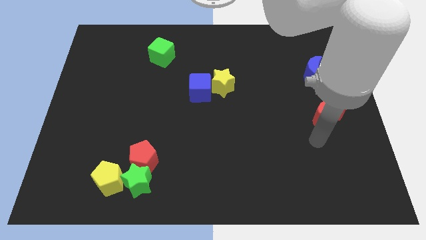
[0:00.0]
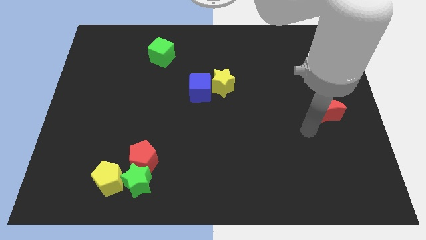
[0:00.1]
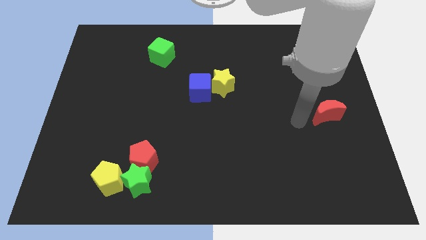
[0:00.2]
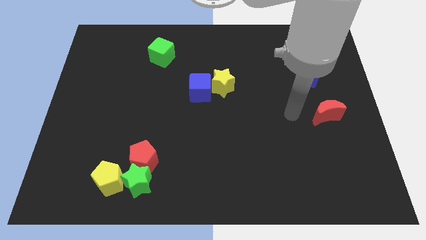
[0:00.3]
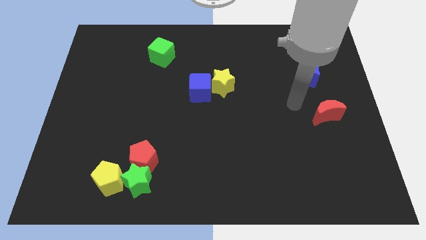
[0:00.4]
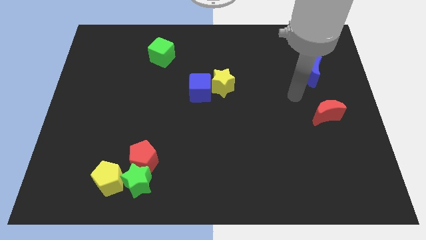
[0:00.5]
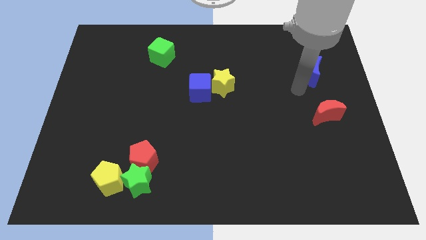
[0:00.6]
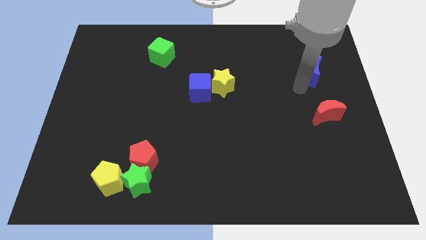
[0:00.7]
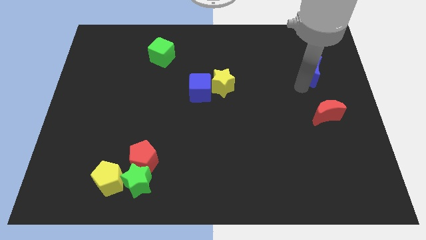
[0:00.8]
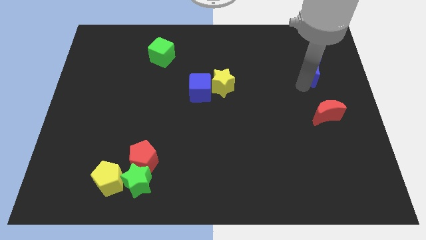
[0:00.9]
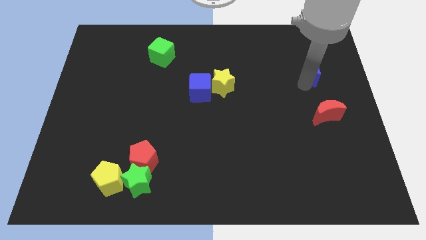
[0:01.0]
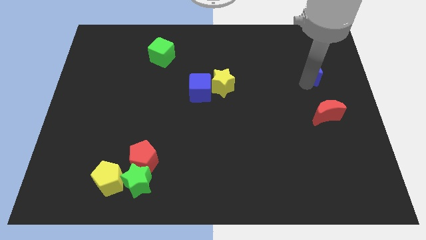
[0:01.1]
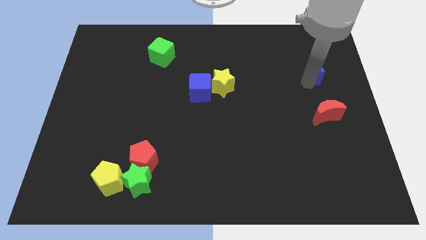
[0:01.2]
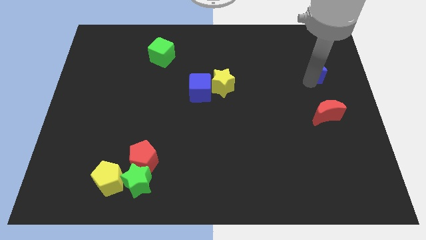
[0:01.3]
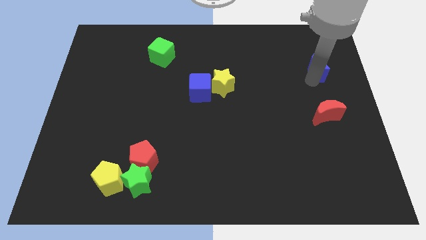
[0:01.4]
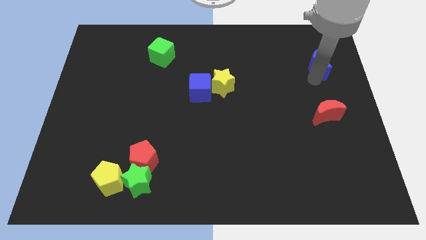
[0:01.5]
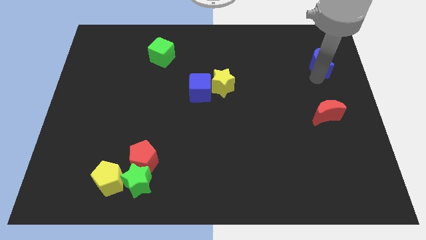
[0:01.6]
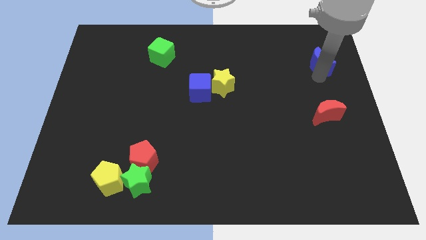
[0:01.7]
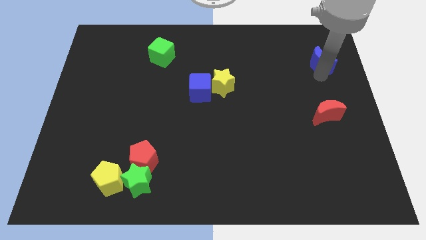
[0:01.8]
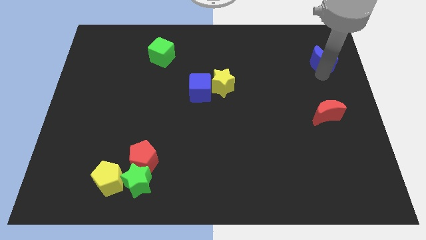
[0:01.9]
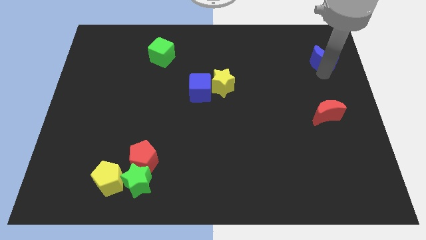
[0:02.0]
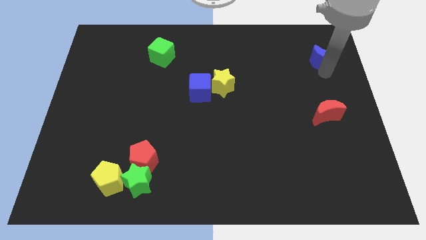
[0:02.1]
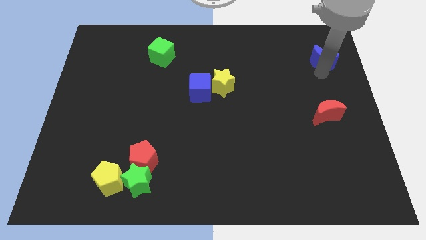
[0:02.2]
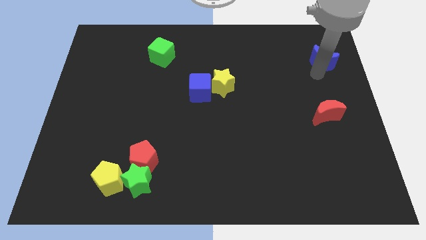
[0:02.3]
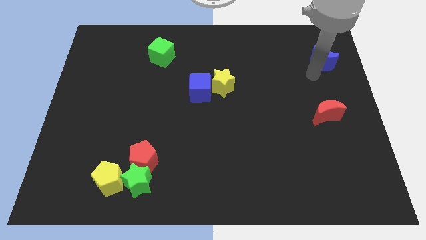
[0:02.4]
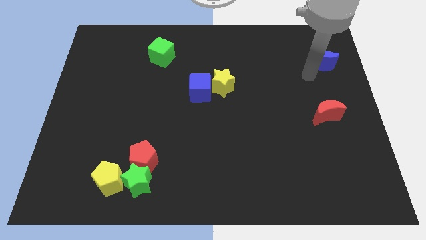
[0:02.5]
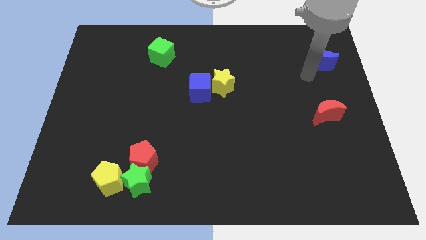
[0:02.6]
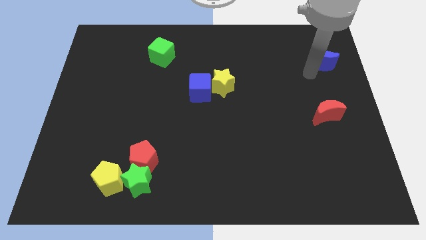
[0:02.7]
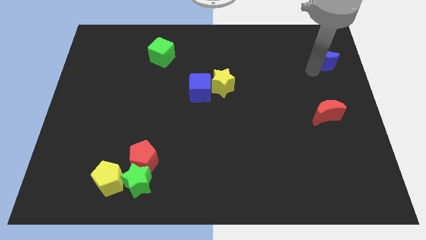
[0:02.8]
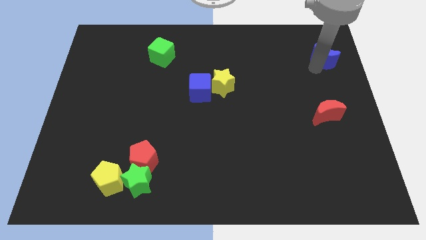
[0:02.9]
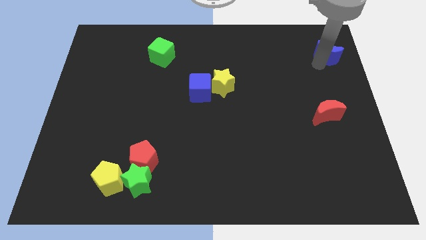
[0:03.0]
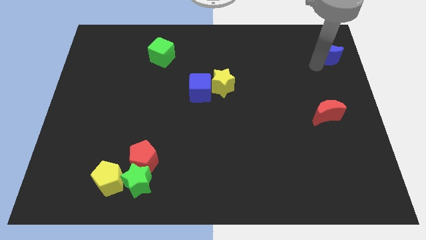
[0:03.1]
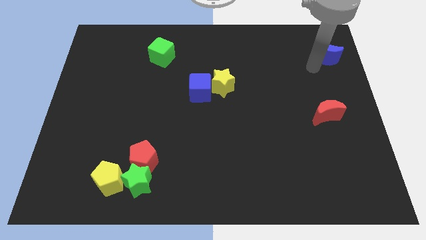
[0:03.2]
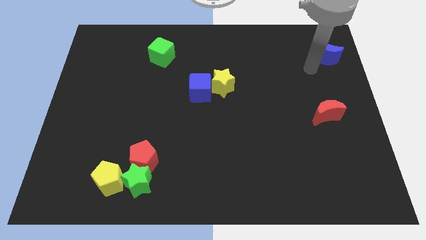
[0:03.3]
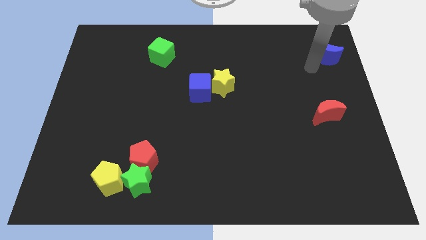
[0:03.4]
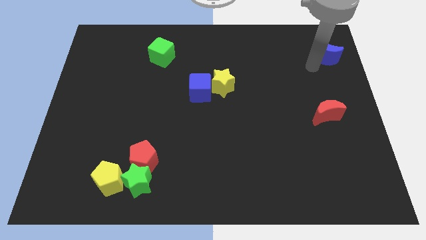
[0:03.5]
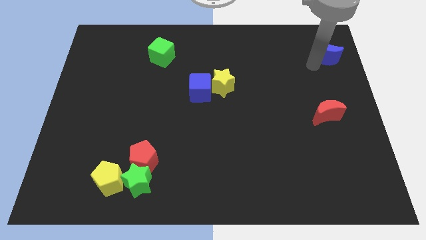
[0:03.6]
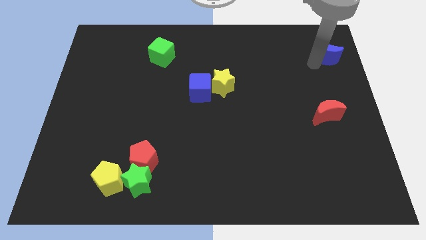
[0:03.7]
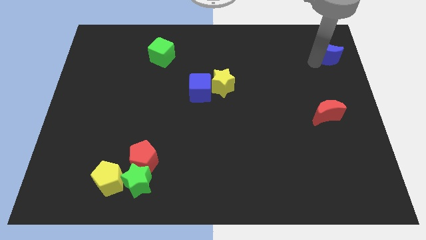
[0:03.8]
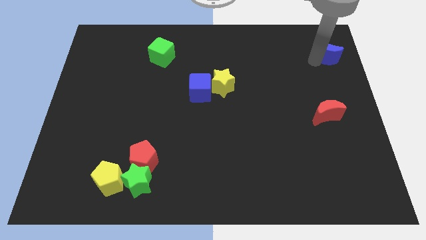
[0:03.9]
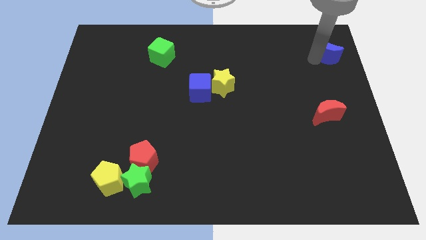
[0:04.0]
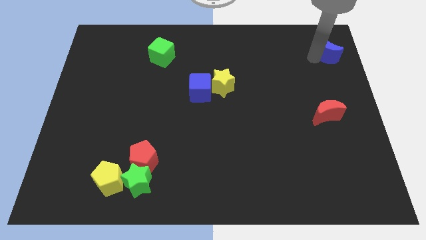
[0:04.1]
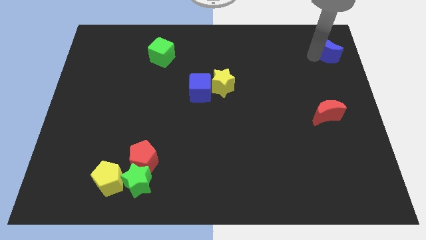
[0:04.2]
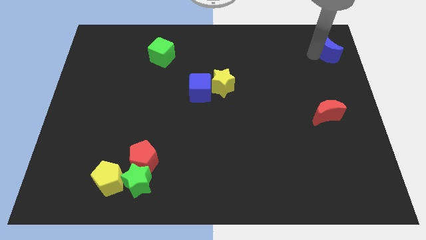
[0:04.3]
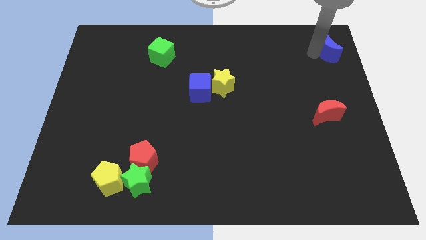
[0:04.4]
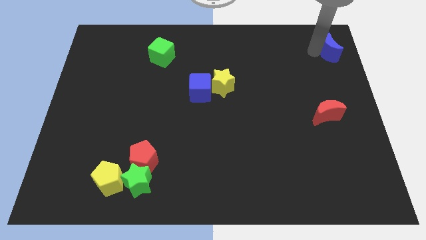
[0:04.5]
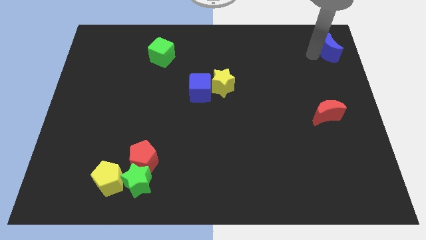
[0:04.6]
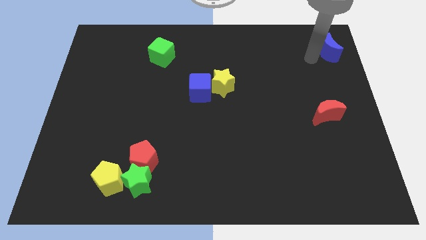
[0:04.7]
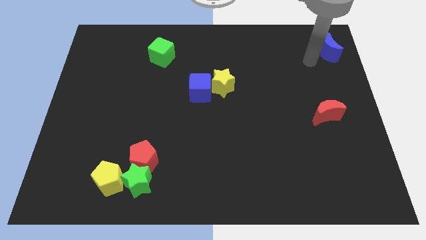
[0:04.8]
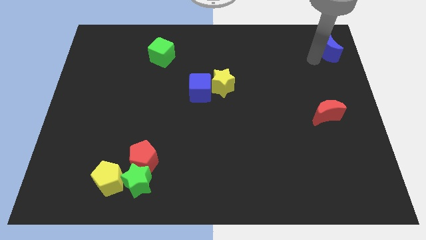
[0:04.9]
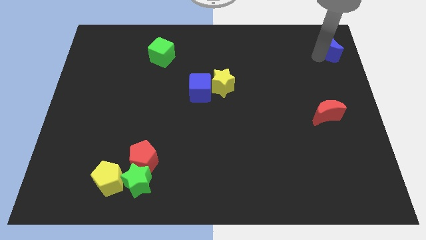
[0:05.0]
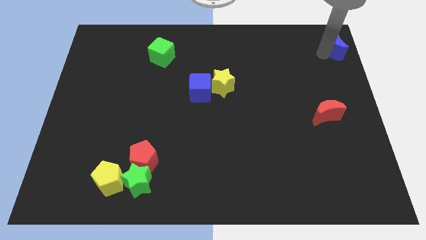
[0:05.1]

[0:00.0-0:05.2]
push the blue moon to the top right corner
